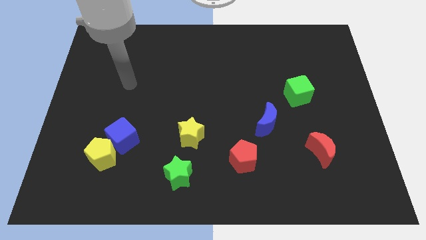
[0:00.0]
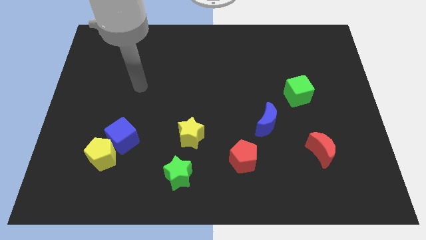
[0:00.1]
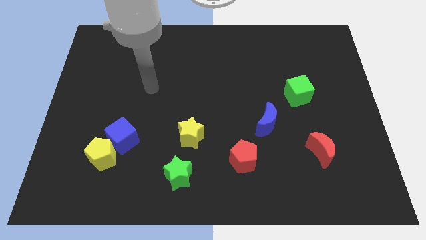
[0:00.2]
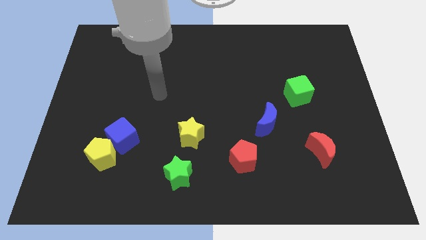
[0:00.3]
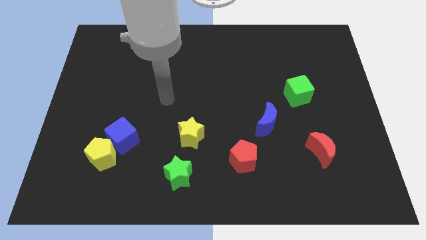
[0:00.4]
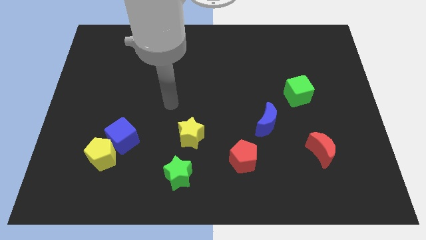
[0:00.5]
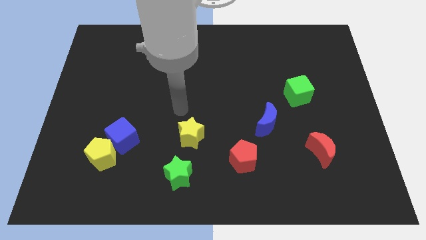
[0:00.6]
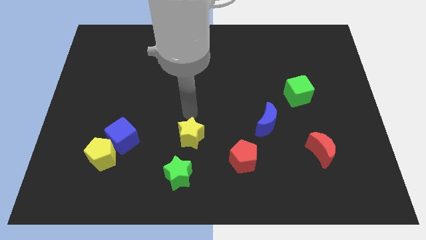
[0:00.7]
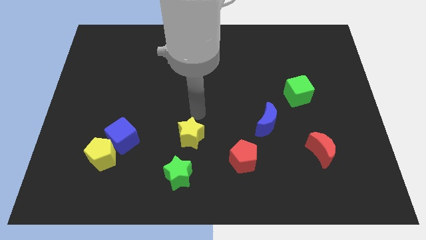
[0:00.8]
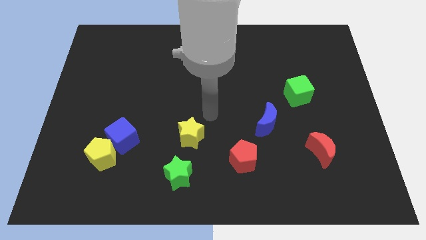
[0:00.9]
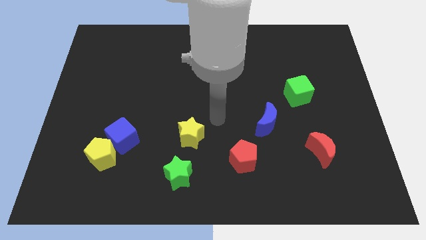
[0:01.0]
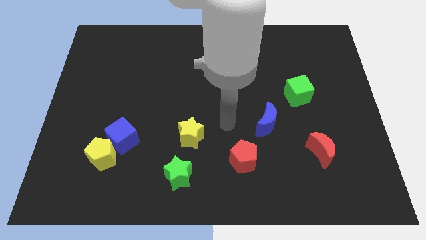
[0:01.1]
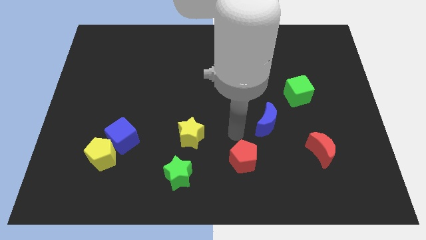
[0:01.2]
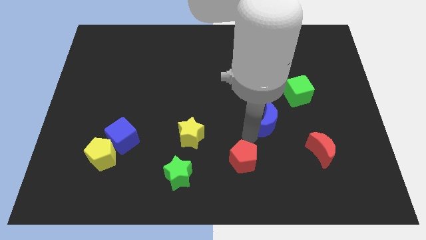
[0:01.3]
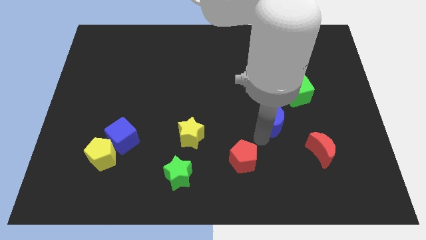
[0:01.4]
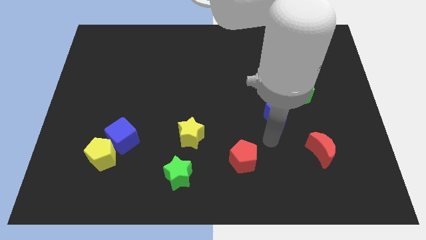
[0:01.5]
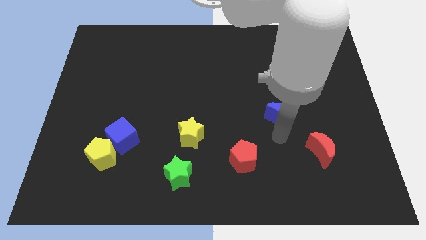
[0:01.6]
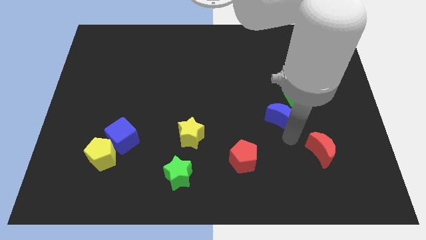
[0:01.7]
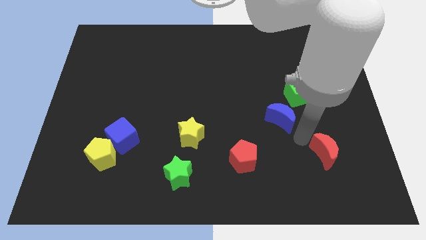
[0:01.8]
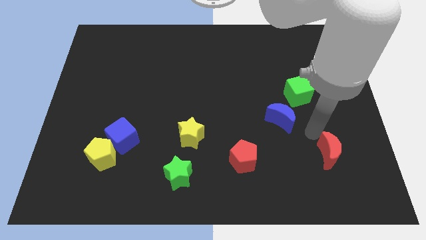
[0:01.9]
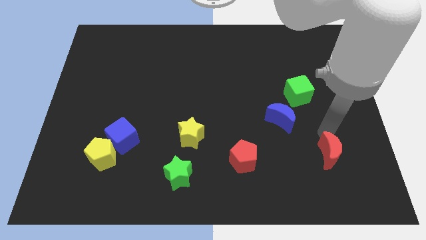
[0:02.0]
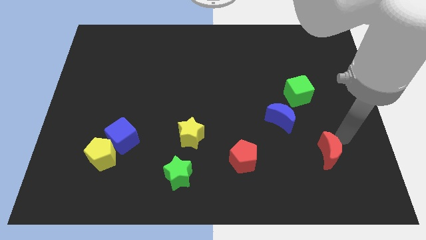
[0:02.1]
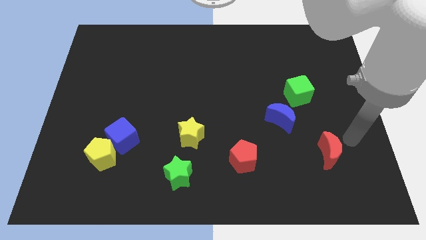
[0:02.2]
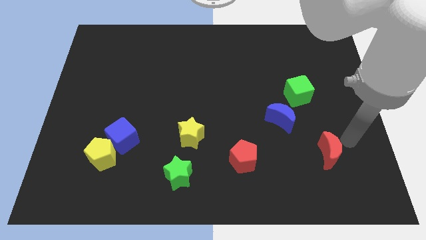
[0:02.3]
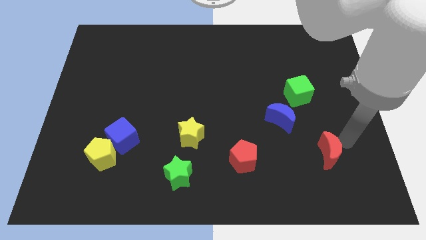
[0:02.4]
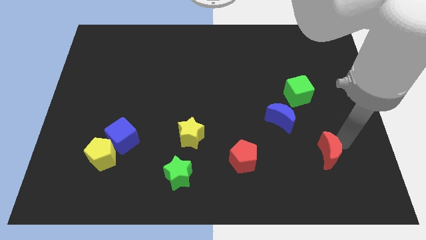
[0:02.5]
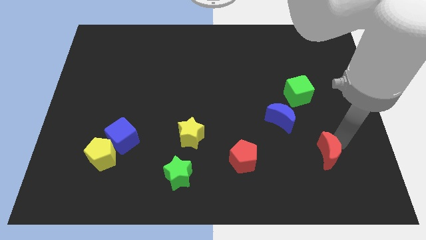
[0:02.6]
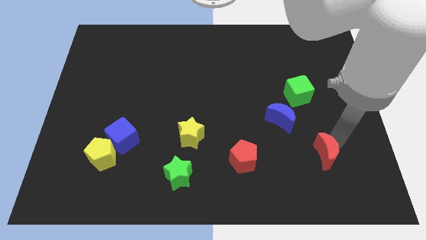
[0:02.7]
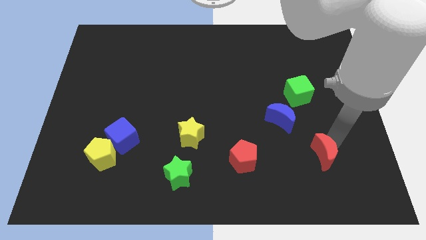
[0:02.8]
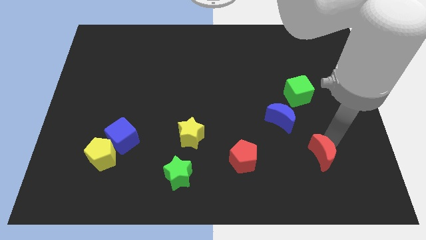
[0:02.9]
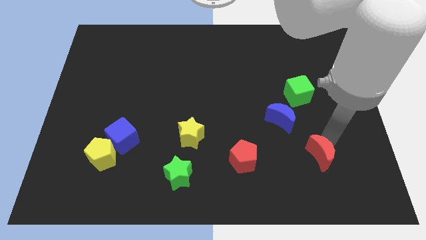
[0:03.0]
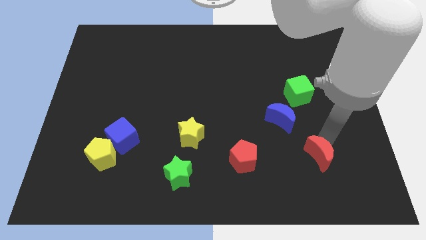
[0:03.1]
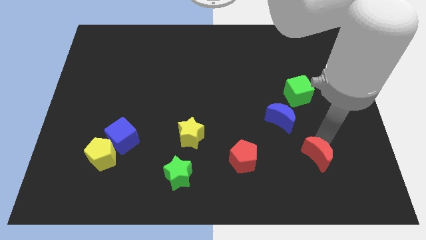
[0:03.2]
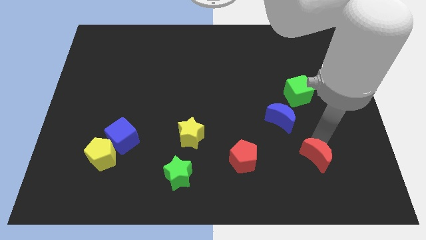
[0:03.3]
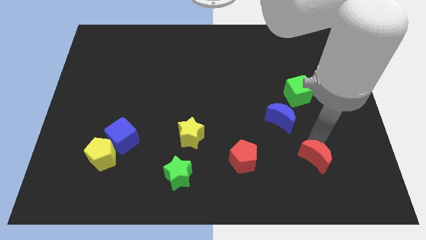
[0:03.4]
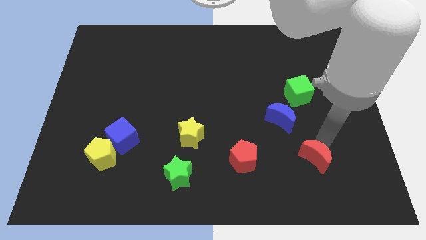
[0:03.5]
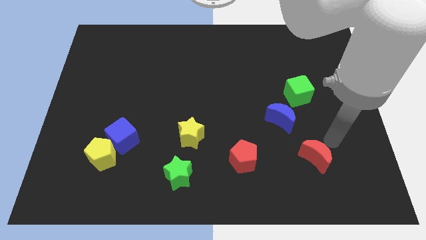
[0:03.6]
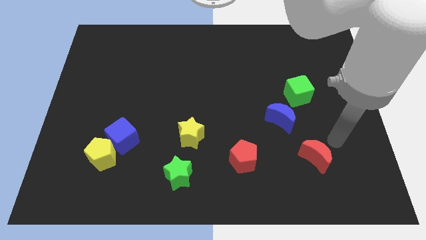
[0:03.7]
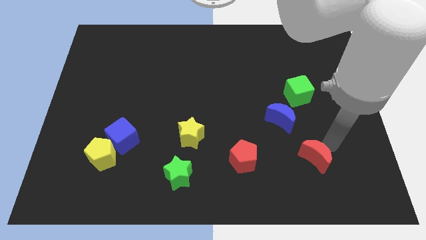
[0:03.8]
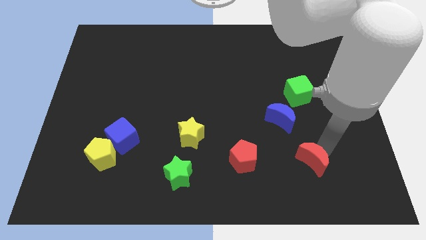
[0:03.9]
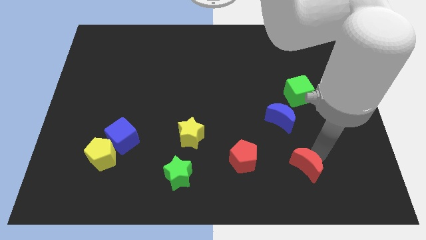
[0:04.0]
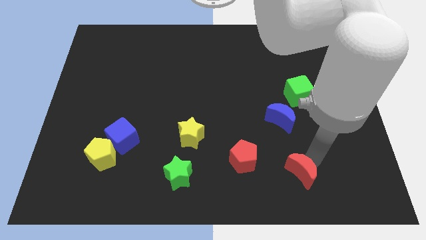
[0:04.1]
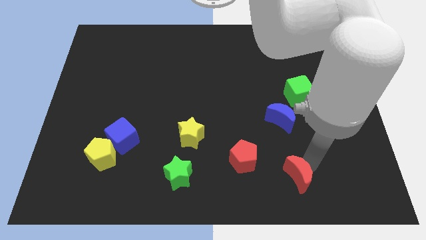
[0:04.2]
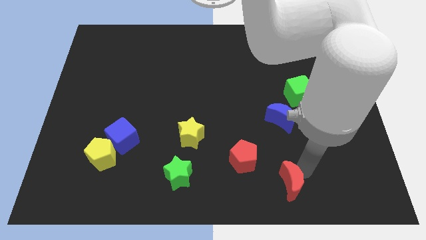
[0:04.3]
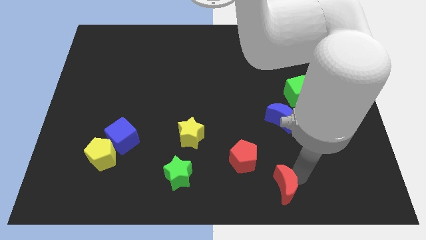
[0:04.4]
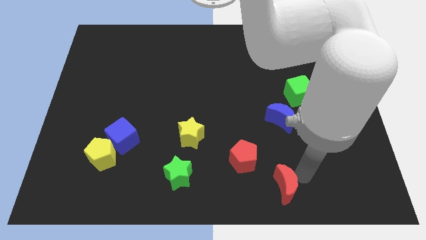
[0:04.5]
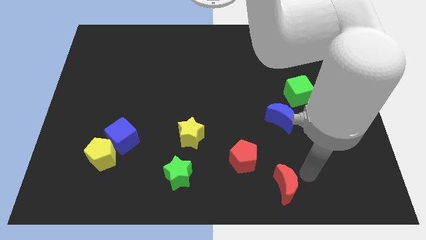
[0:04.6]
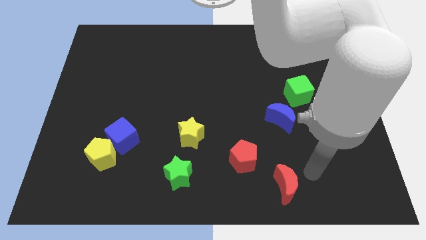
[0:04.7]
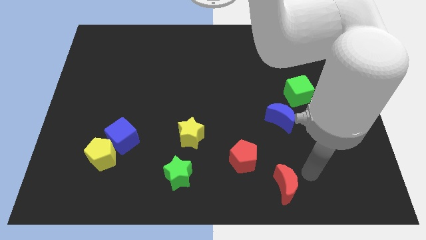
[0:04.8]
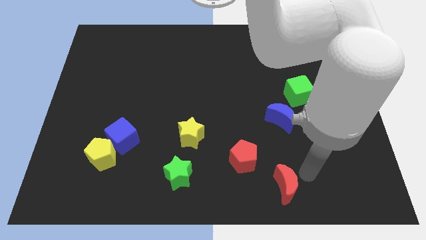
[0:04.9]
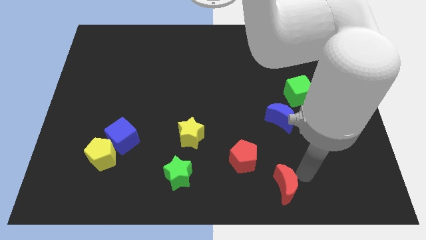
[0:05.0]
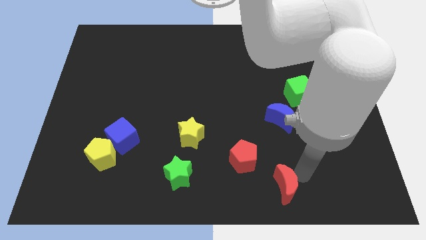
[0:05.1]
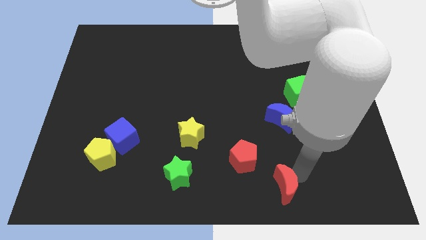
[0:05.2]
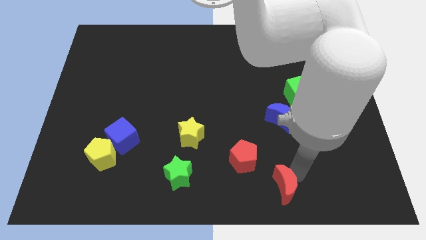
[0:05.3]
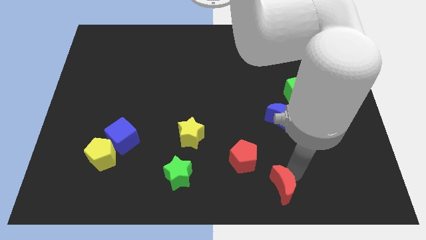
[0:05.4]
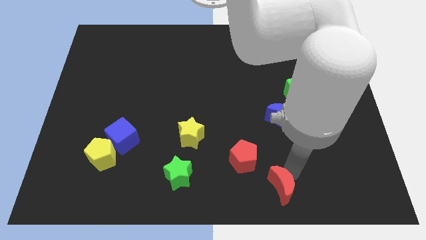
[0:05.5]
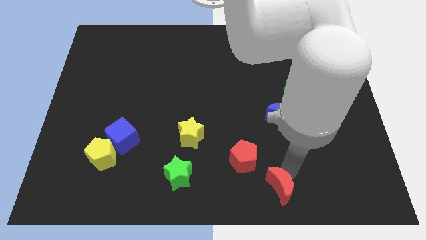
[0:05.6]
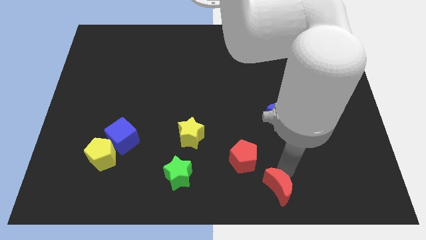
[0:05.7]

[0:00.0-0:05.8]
put the red moon to the bottom

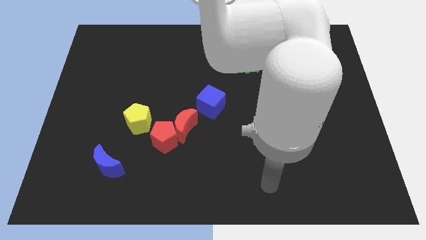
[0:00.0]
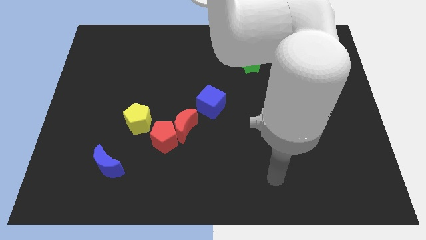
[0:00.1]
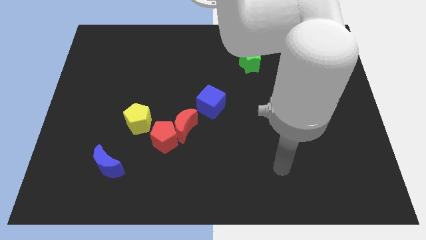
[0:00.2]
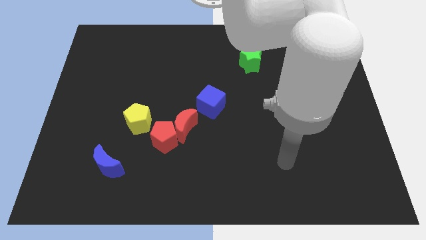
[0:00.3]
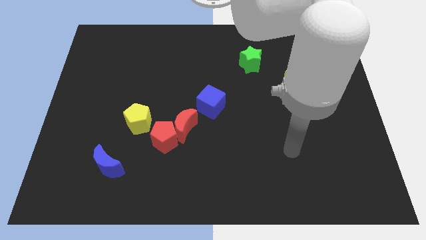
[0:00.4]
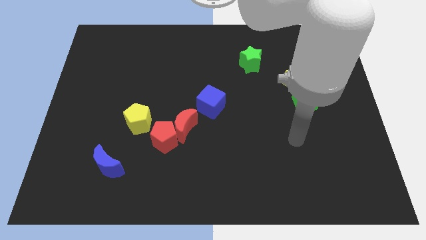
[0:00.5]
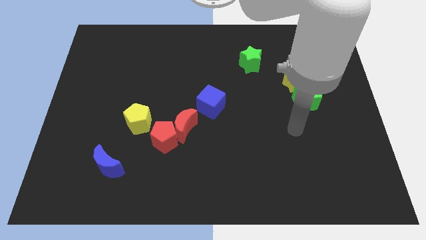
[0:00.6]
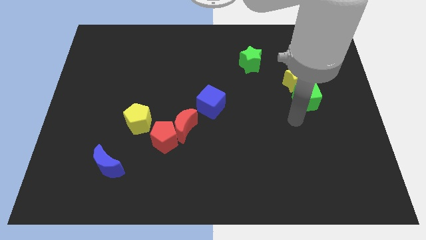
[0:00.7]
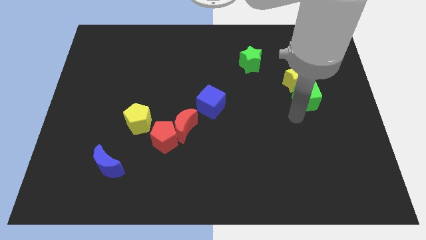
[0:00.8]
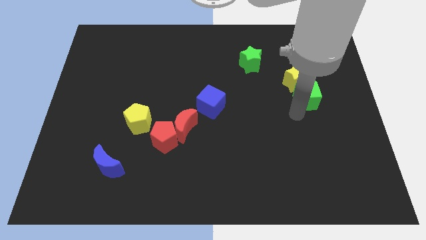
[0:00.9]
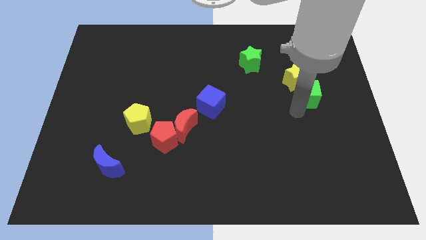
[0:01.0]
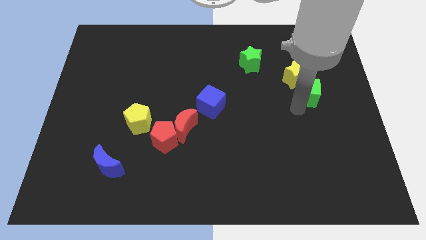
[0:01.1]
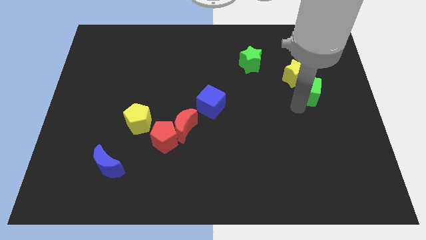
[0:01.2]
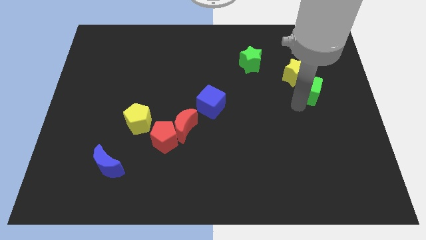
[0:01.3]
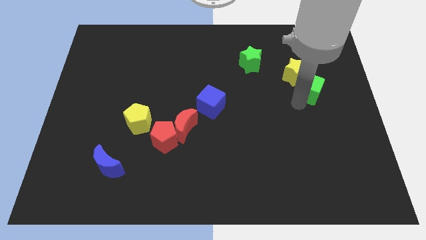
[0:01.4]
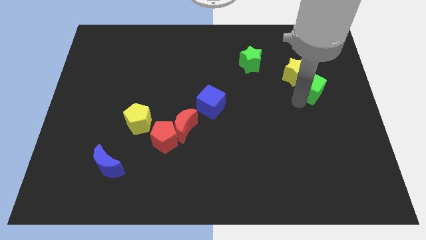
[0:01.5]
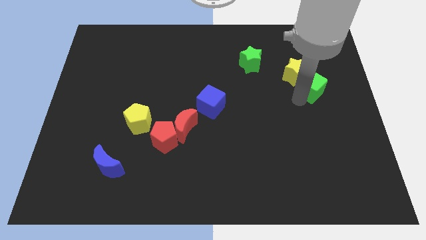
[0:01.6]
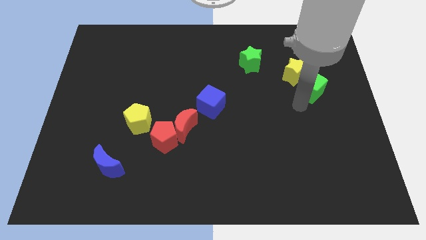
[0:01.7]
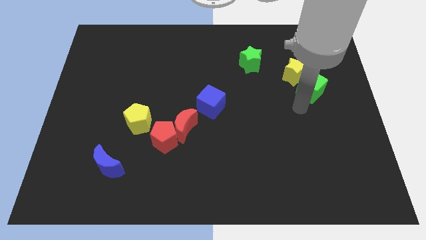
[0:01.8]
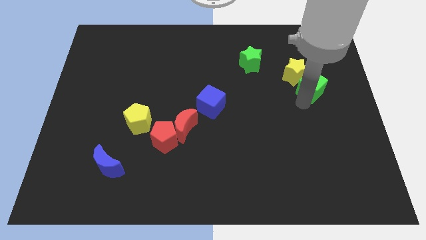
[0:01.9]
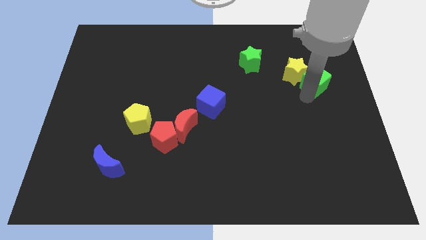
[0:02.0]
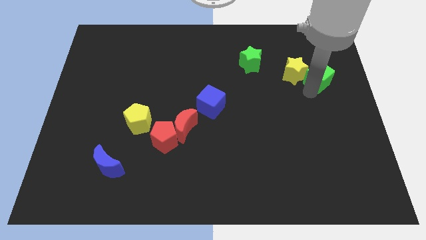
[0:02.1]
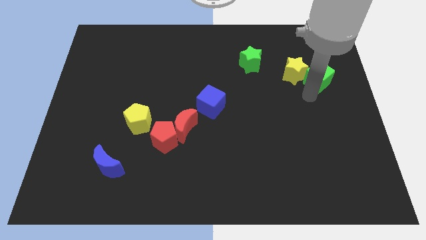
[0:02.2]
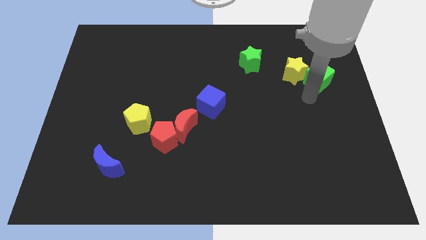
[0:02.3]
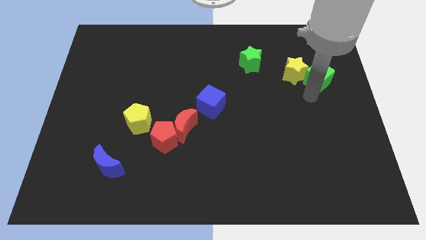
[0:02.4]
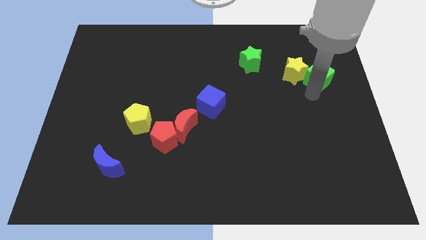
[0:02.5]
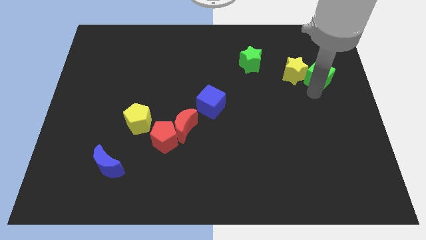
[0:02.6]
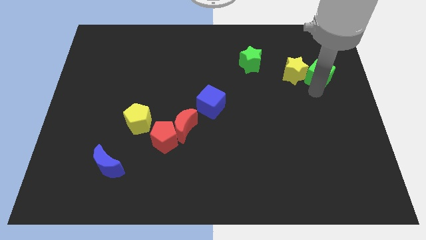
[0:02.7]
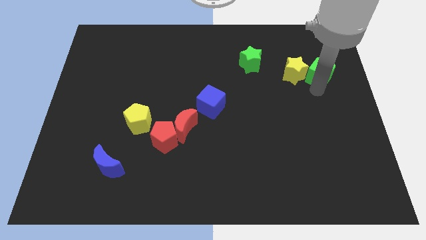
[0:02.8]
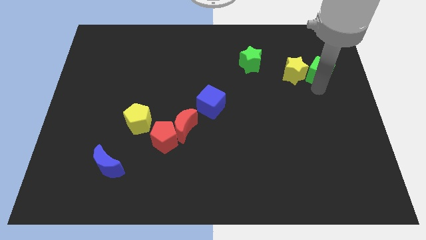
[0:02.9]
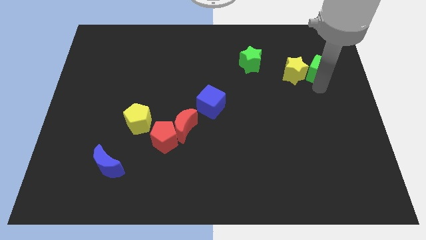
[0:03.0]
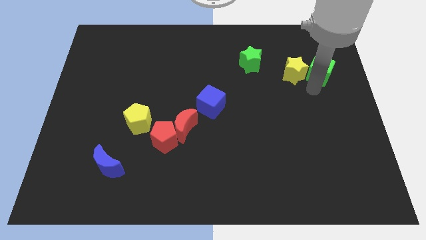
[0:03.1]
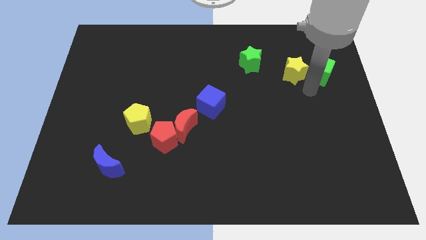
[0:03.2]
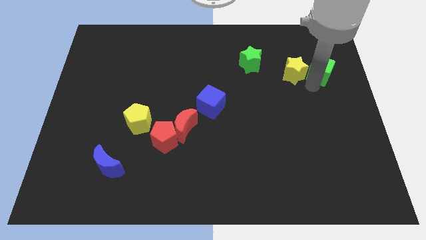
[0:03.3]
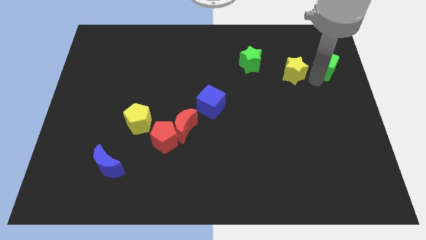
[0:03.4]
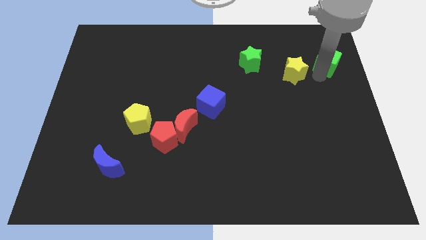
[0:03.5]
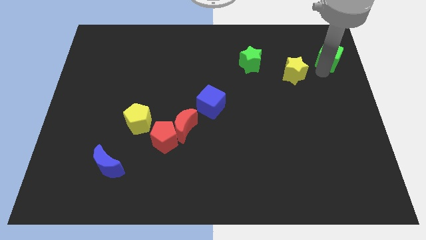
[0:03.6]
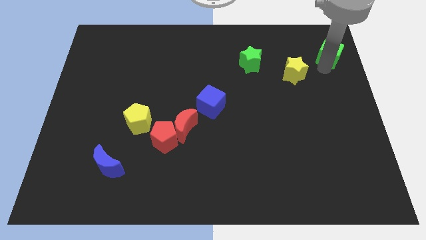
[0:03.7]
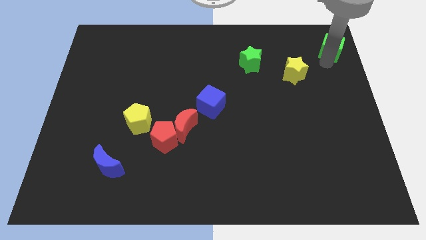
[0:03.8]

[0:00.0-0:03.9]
slide the green cube to the top right of the board
